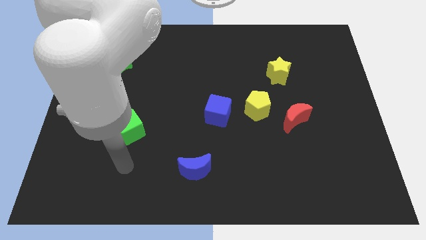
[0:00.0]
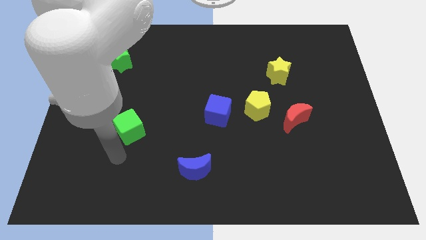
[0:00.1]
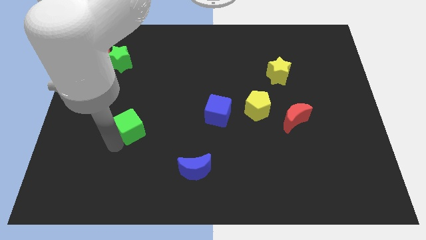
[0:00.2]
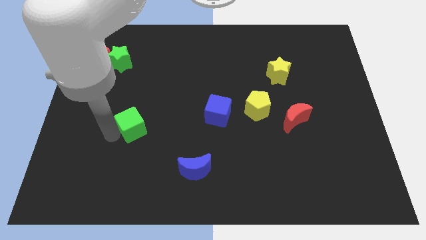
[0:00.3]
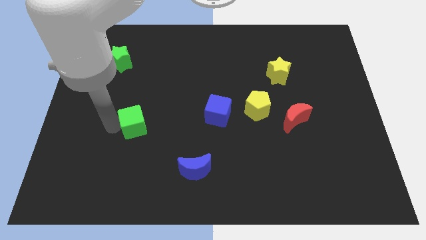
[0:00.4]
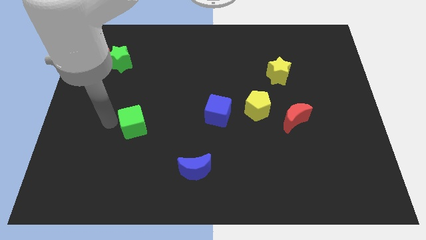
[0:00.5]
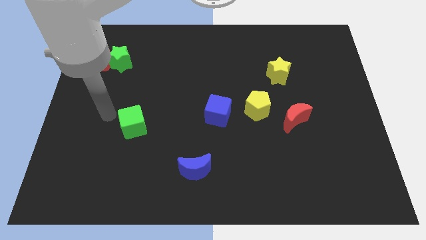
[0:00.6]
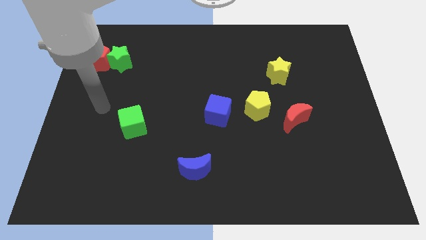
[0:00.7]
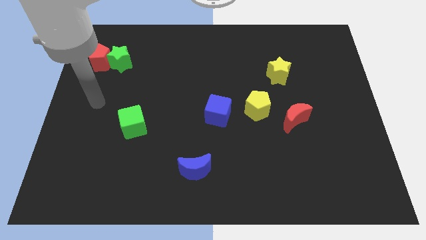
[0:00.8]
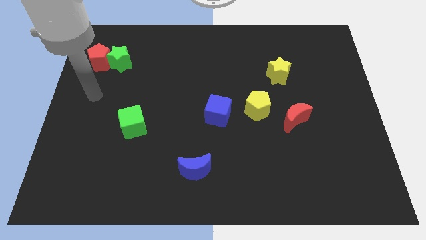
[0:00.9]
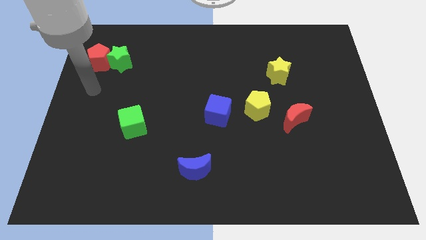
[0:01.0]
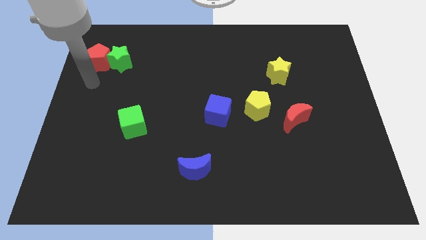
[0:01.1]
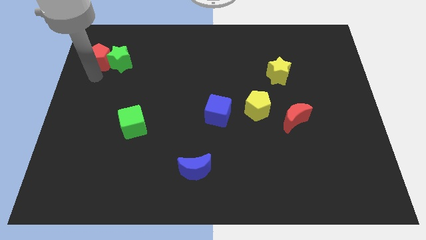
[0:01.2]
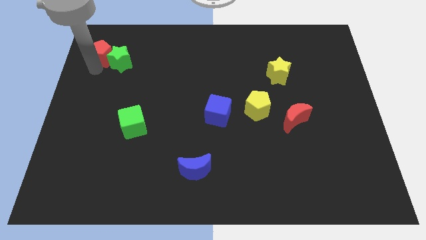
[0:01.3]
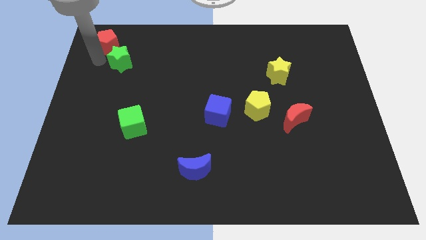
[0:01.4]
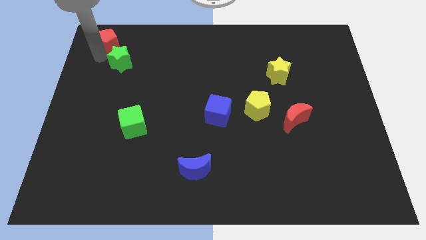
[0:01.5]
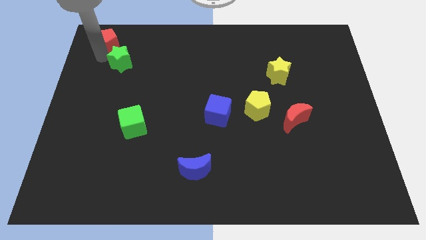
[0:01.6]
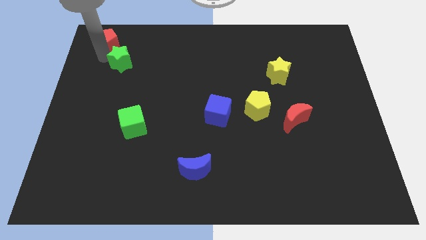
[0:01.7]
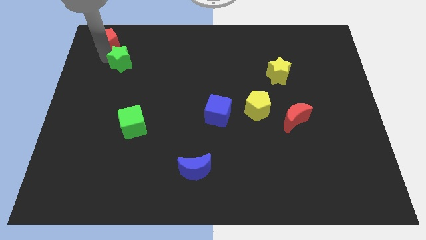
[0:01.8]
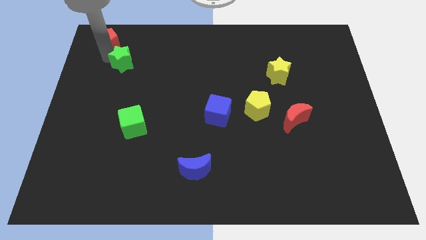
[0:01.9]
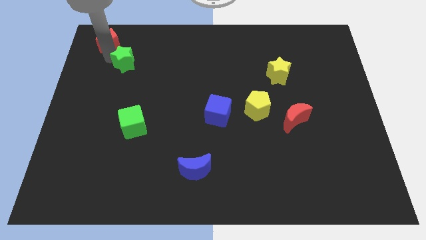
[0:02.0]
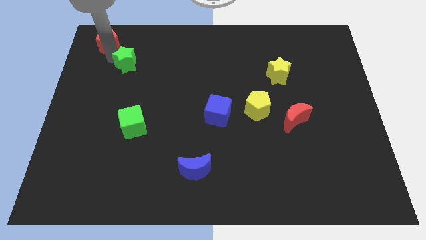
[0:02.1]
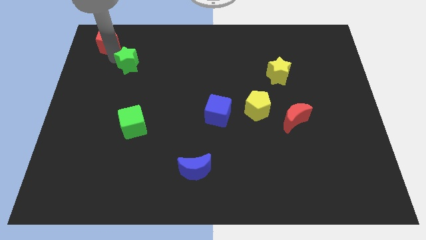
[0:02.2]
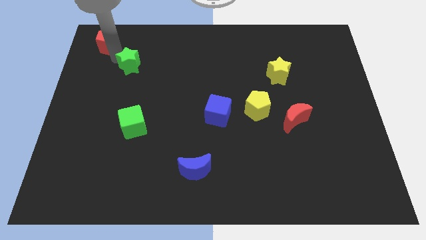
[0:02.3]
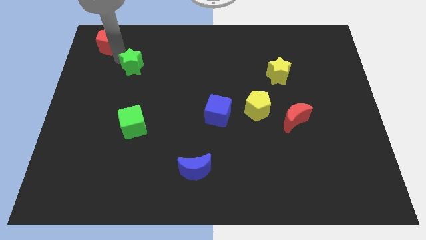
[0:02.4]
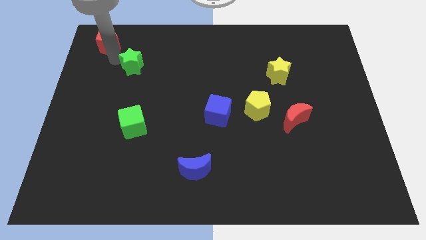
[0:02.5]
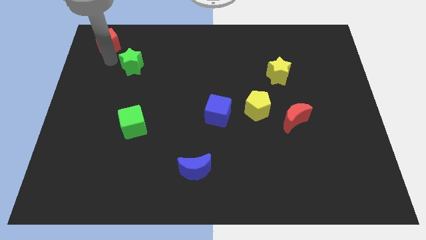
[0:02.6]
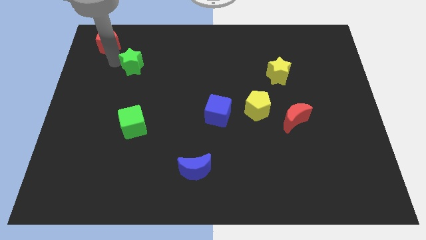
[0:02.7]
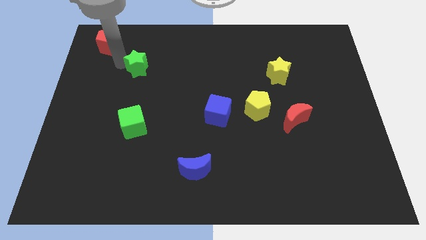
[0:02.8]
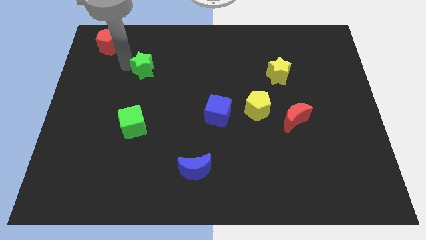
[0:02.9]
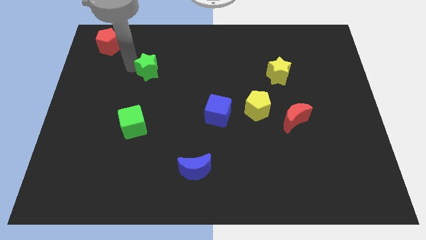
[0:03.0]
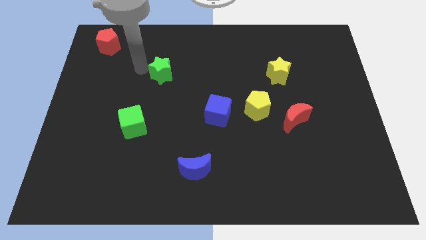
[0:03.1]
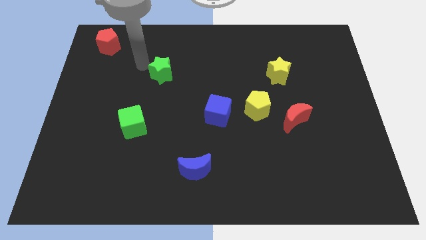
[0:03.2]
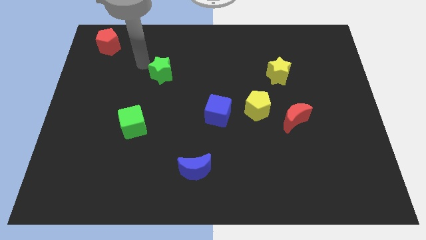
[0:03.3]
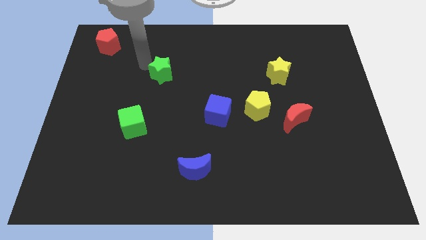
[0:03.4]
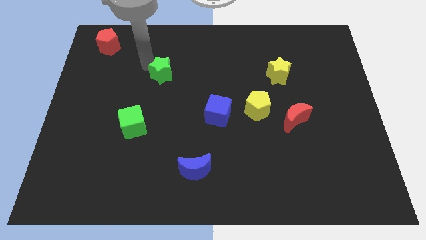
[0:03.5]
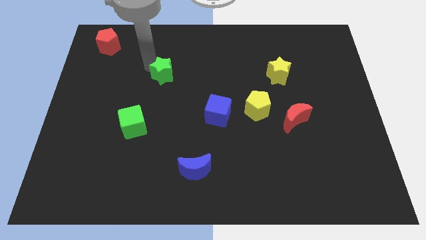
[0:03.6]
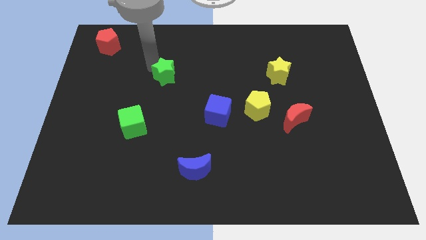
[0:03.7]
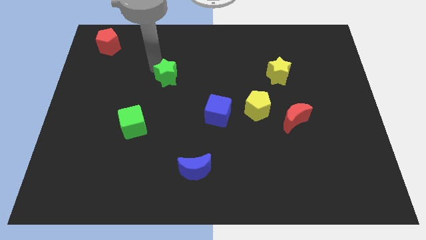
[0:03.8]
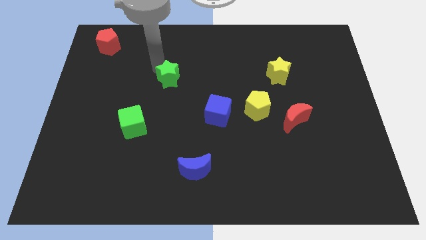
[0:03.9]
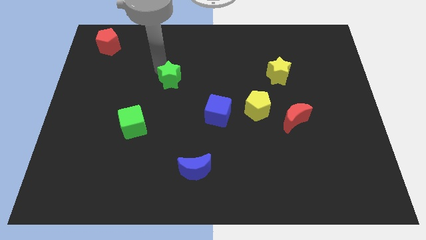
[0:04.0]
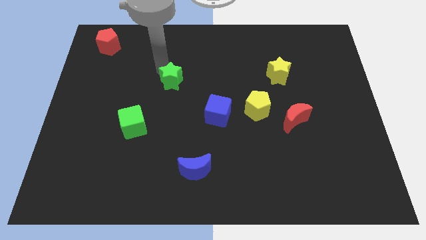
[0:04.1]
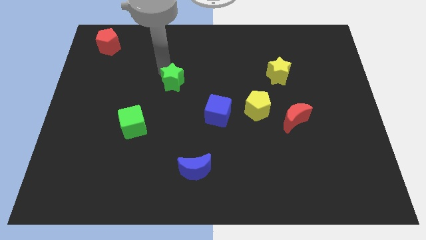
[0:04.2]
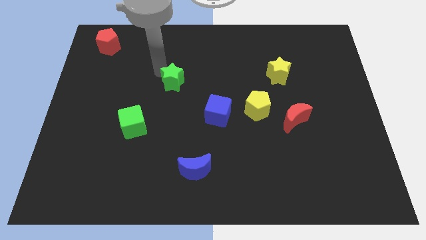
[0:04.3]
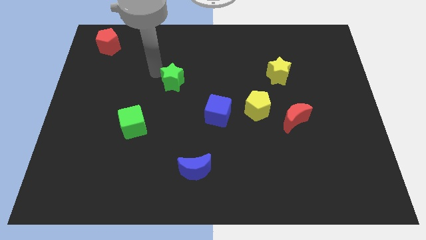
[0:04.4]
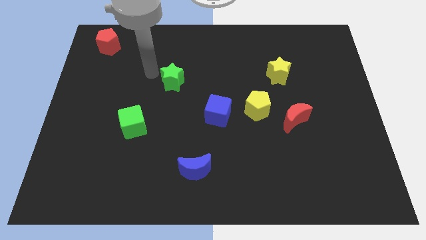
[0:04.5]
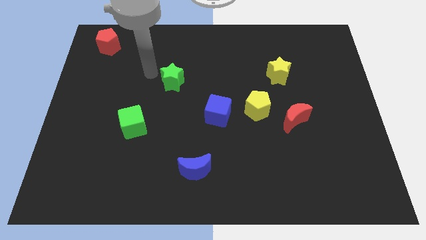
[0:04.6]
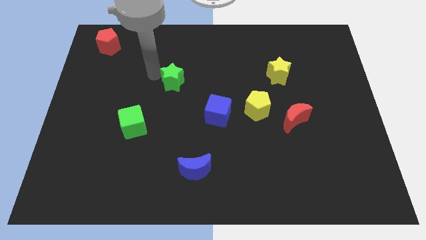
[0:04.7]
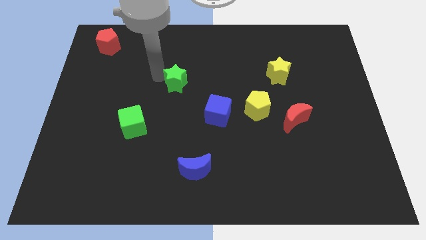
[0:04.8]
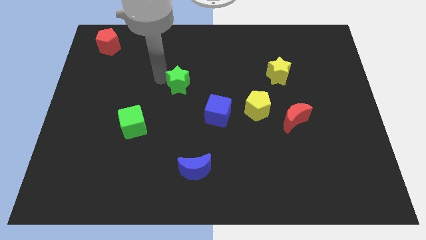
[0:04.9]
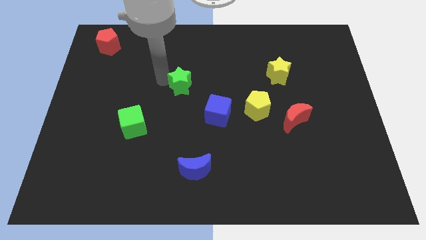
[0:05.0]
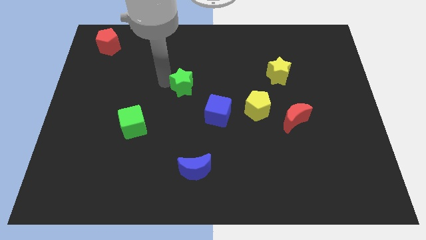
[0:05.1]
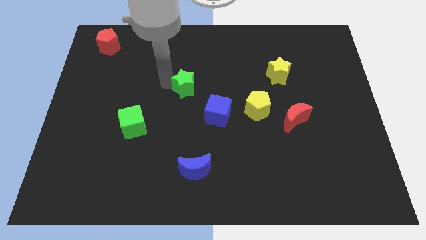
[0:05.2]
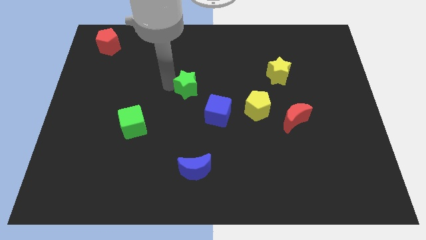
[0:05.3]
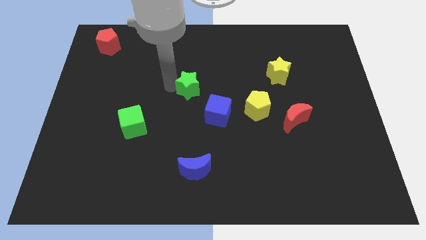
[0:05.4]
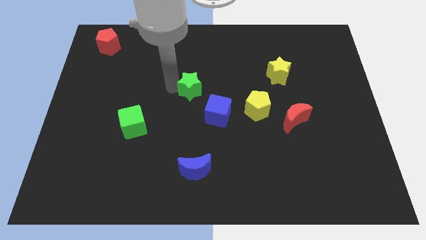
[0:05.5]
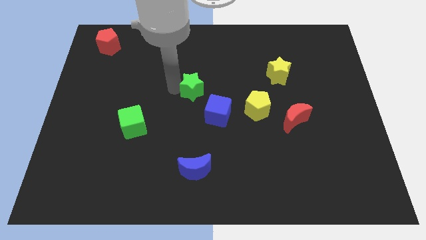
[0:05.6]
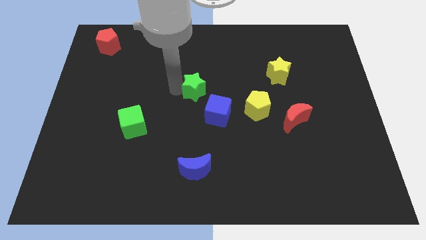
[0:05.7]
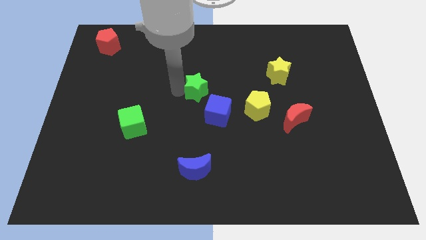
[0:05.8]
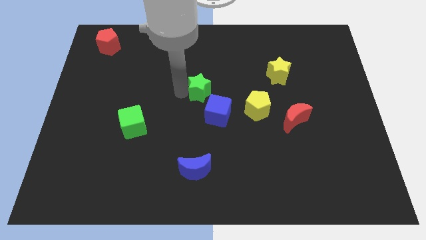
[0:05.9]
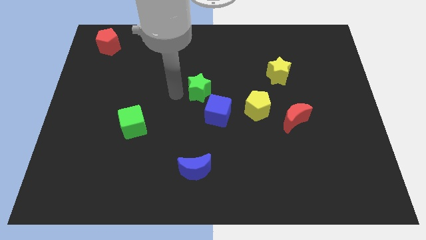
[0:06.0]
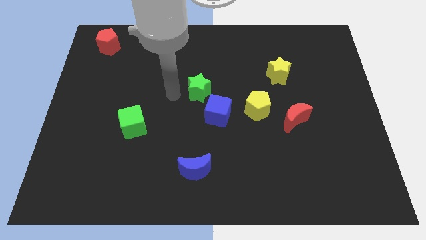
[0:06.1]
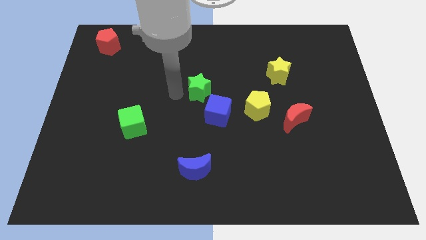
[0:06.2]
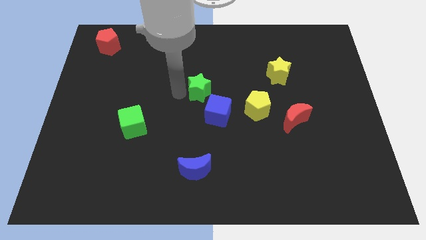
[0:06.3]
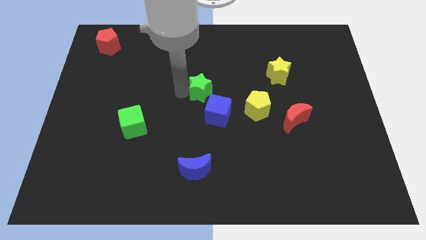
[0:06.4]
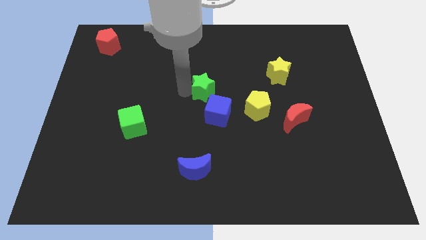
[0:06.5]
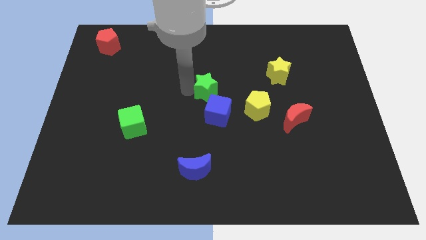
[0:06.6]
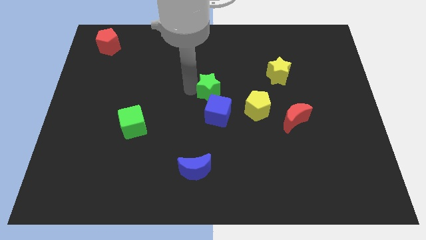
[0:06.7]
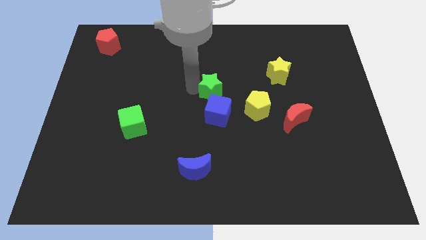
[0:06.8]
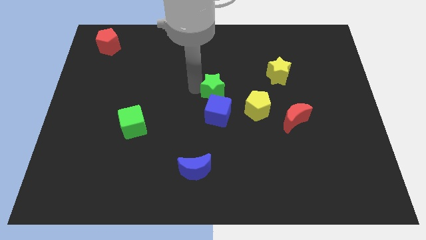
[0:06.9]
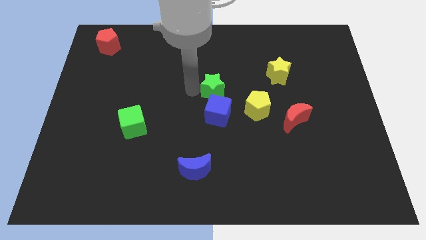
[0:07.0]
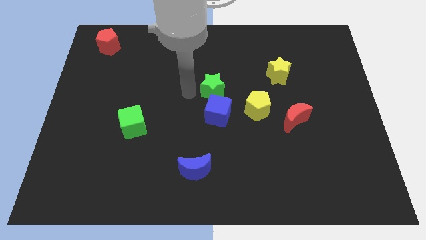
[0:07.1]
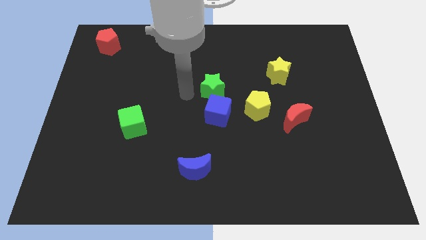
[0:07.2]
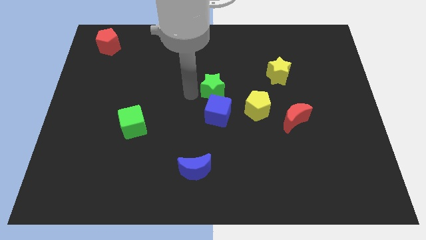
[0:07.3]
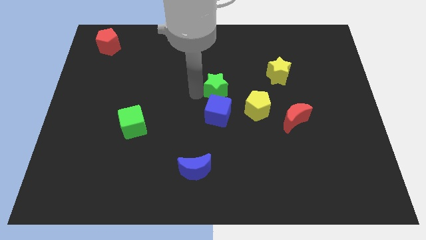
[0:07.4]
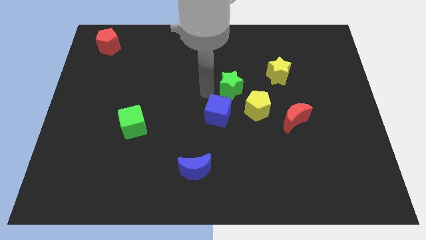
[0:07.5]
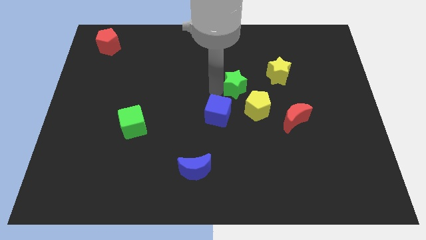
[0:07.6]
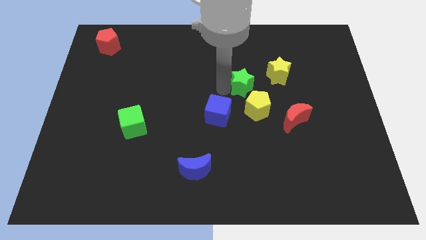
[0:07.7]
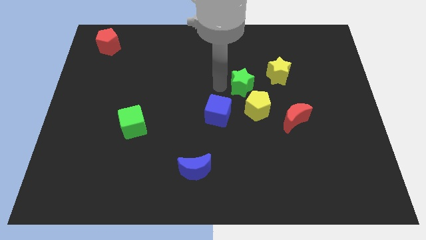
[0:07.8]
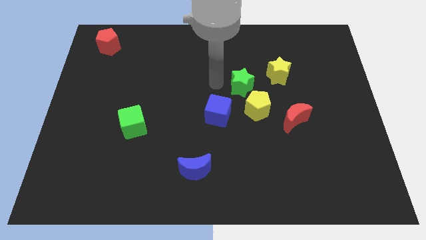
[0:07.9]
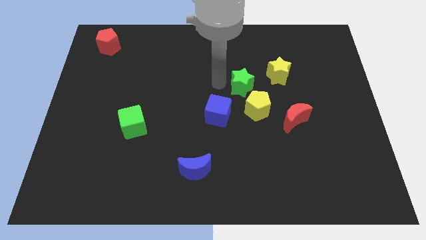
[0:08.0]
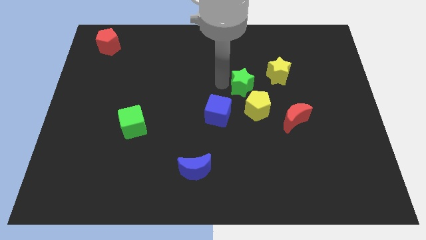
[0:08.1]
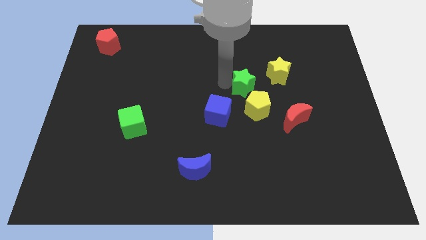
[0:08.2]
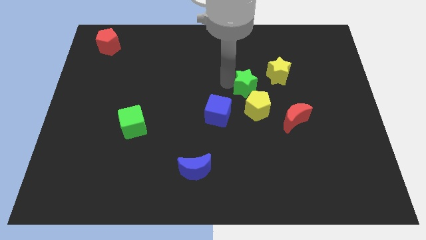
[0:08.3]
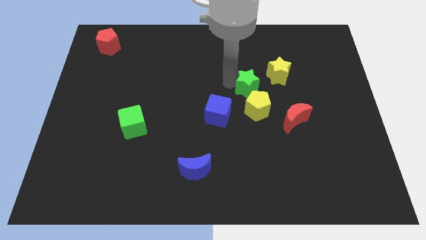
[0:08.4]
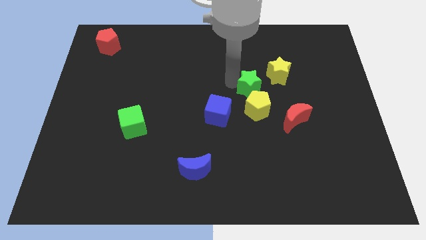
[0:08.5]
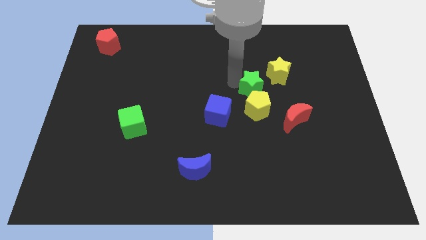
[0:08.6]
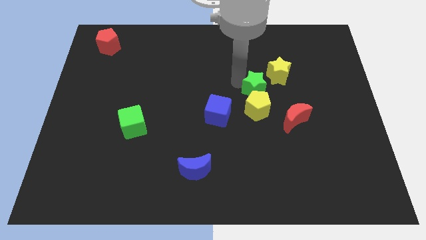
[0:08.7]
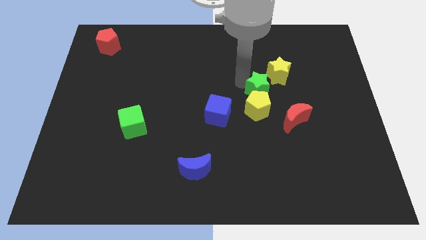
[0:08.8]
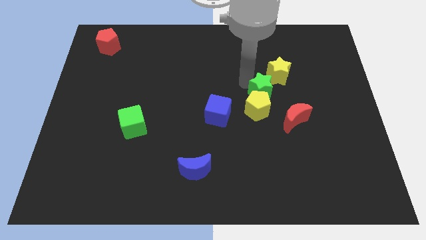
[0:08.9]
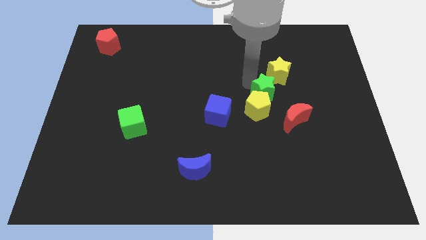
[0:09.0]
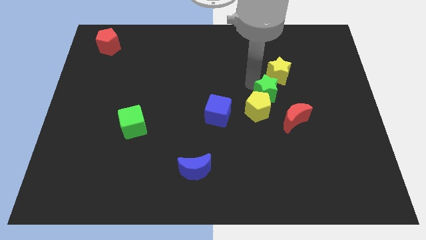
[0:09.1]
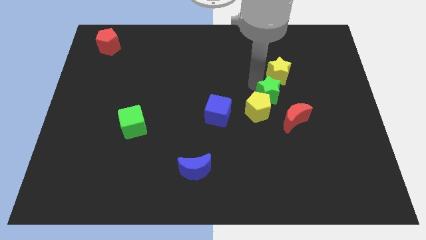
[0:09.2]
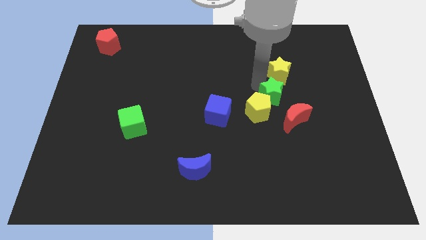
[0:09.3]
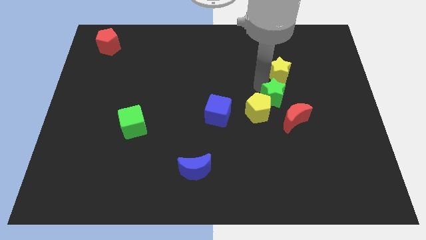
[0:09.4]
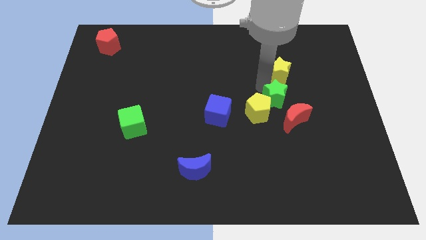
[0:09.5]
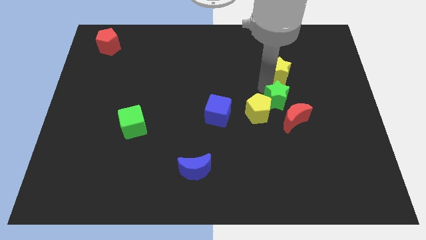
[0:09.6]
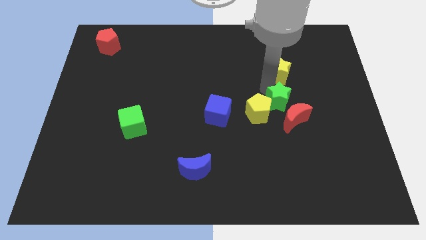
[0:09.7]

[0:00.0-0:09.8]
move the green star towards the red moon
